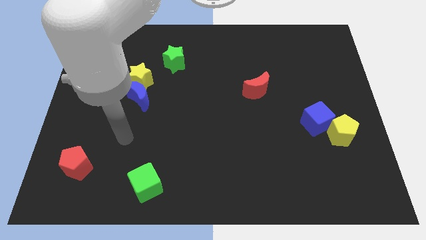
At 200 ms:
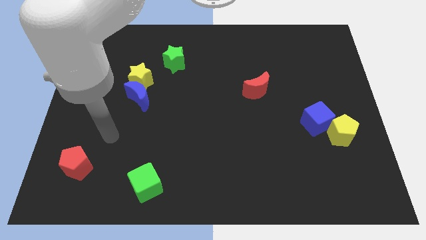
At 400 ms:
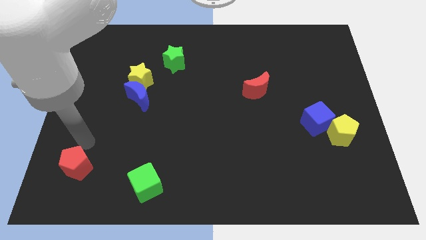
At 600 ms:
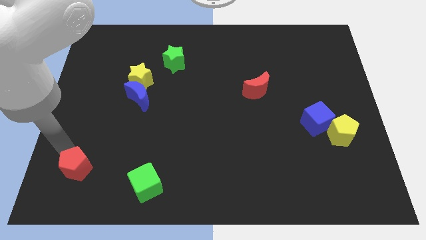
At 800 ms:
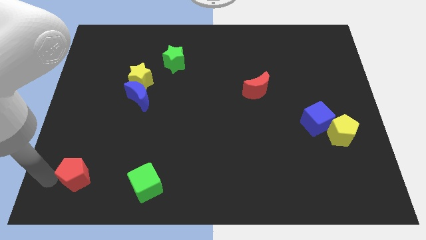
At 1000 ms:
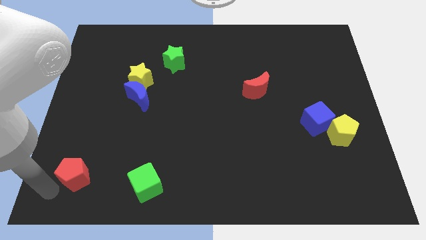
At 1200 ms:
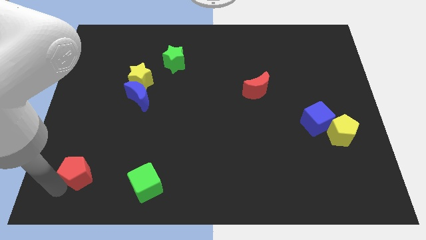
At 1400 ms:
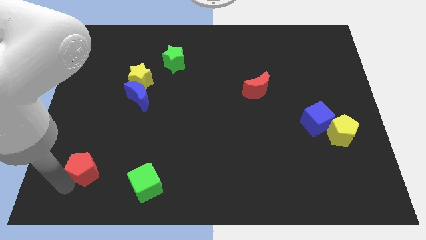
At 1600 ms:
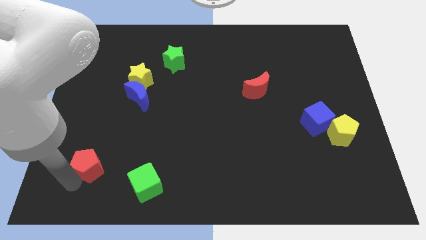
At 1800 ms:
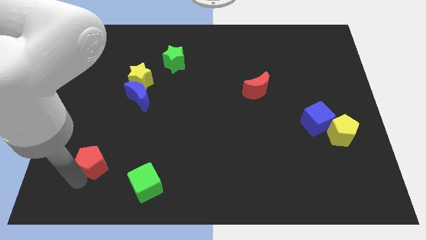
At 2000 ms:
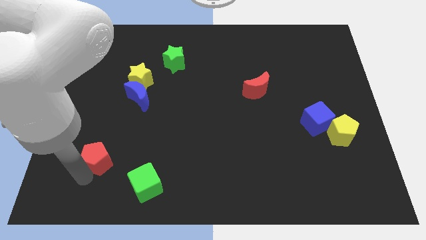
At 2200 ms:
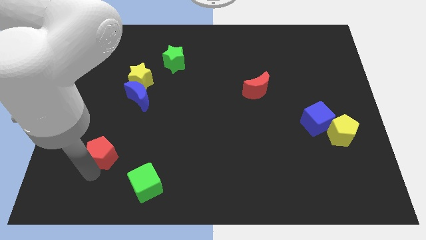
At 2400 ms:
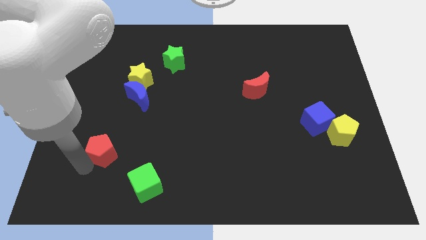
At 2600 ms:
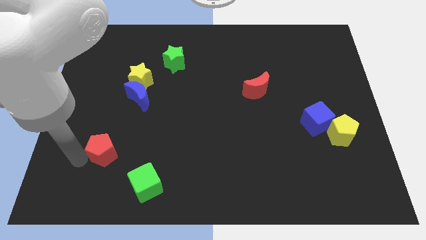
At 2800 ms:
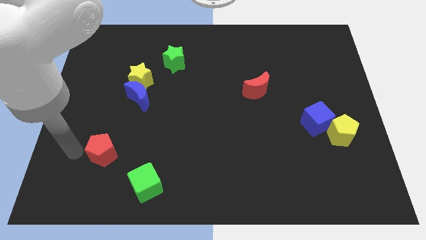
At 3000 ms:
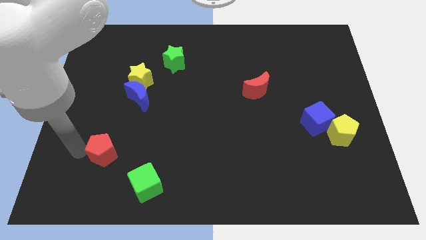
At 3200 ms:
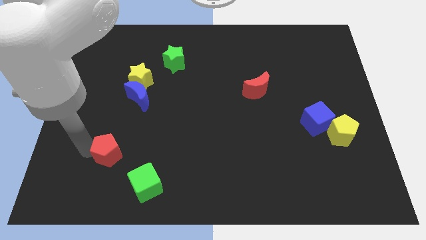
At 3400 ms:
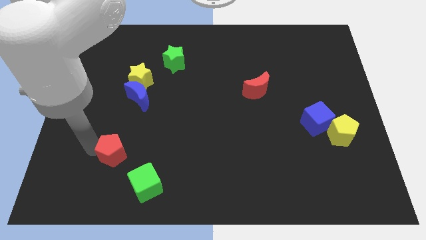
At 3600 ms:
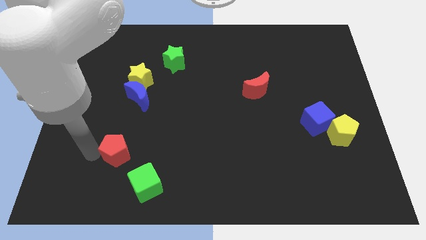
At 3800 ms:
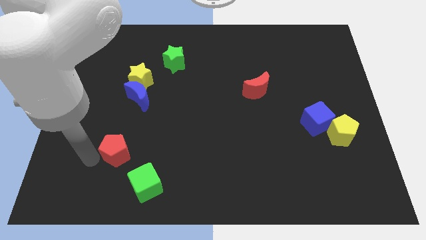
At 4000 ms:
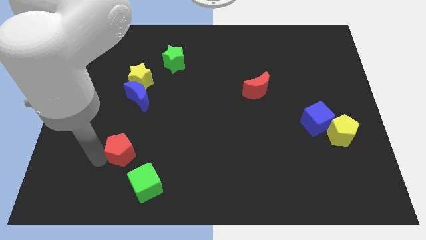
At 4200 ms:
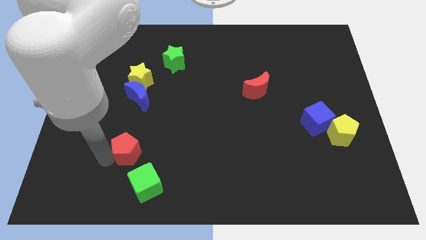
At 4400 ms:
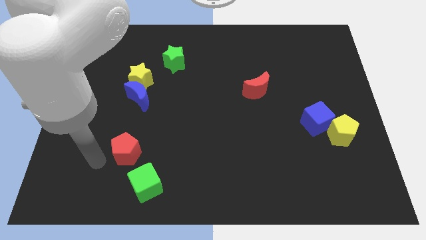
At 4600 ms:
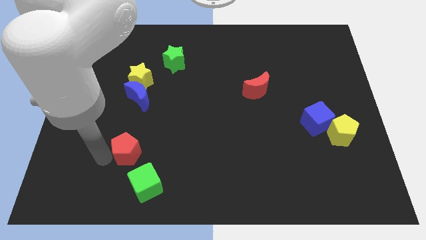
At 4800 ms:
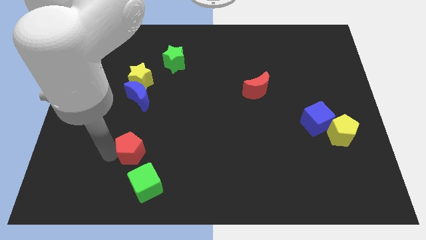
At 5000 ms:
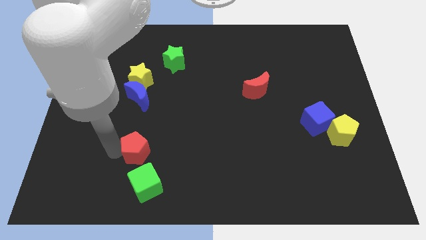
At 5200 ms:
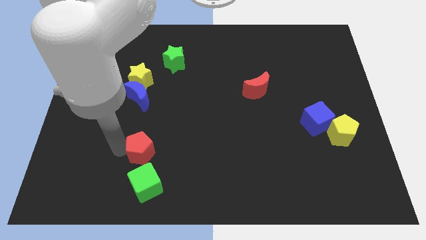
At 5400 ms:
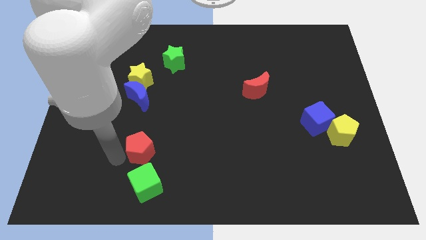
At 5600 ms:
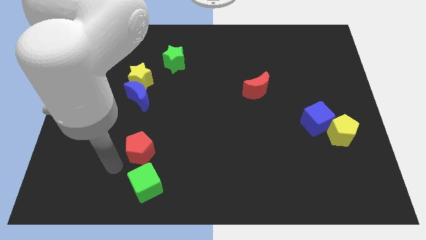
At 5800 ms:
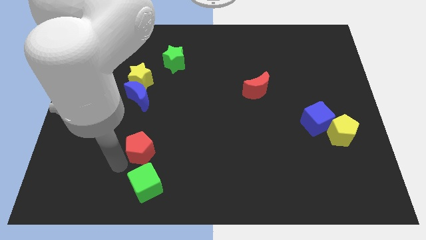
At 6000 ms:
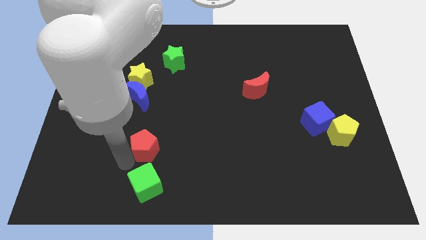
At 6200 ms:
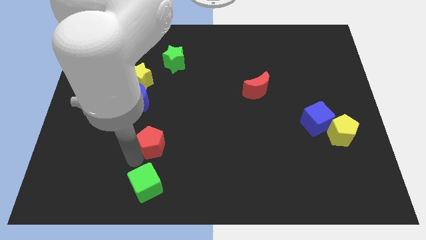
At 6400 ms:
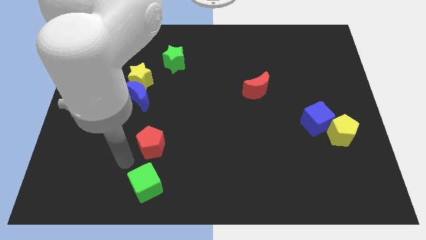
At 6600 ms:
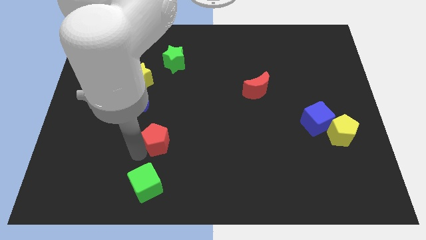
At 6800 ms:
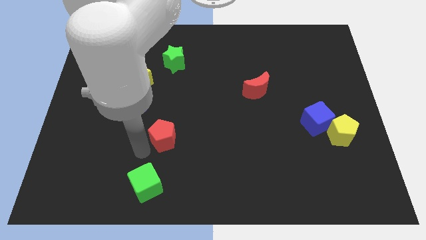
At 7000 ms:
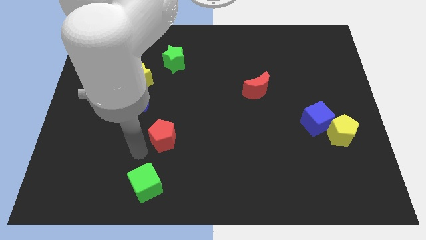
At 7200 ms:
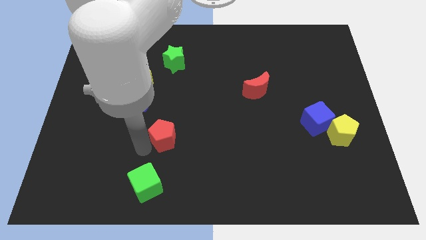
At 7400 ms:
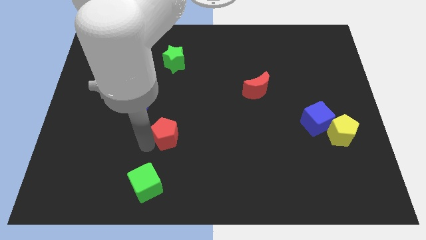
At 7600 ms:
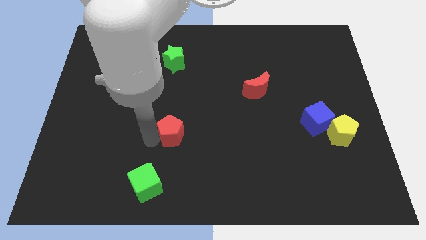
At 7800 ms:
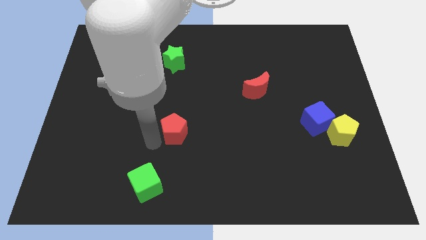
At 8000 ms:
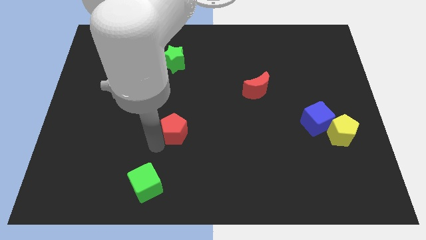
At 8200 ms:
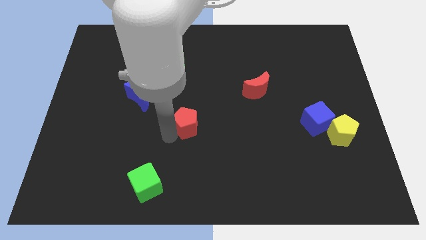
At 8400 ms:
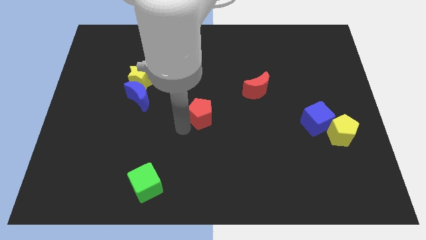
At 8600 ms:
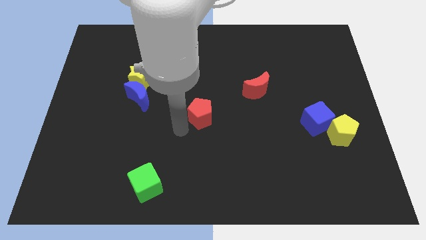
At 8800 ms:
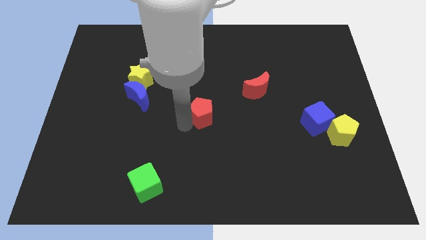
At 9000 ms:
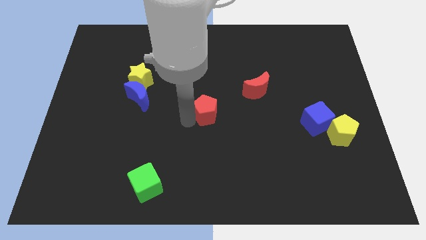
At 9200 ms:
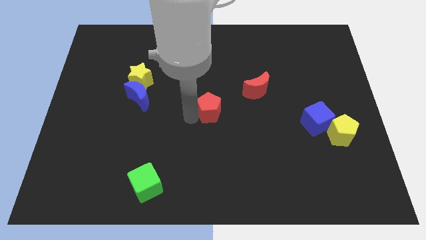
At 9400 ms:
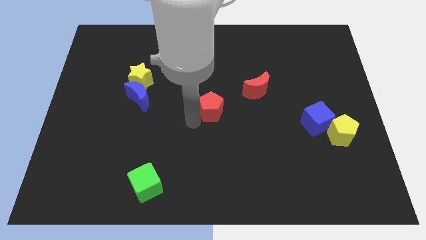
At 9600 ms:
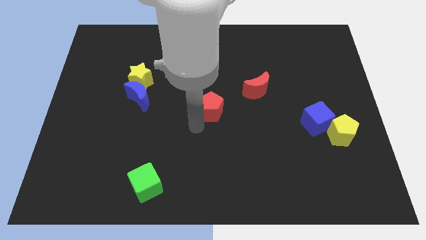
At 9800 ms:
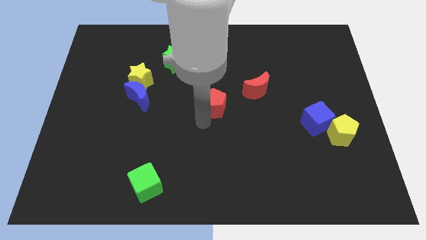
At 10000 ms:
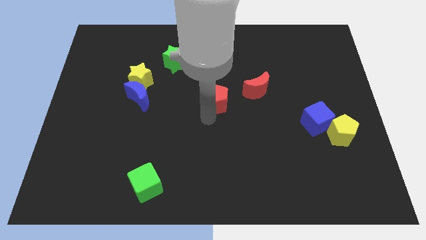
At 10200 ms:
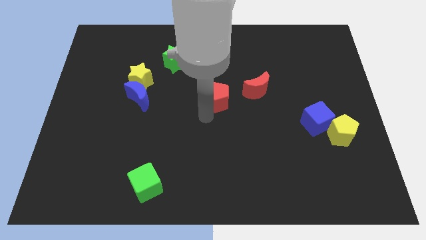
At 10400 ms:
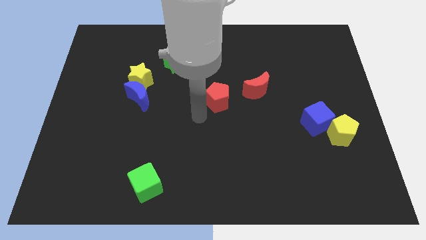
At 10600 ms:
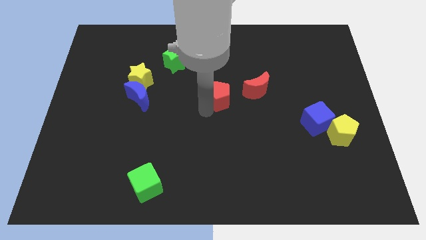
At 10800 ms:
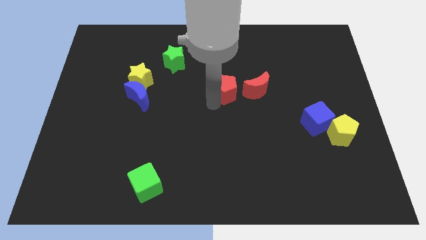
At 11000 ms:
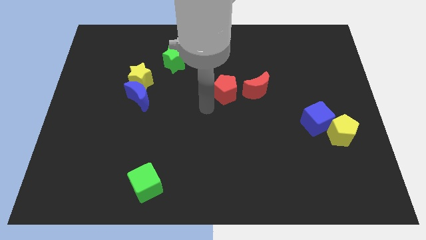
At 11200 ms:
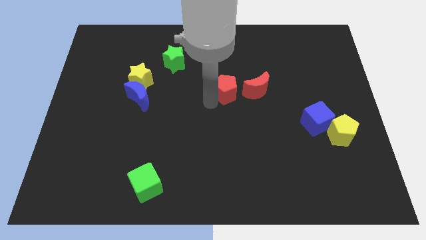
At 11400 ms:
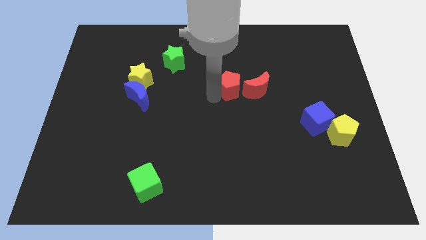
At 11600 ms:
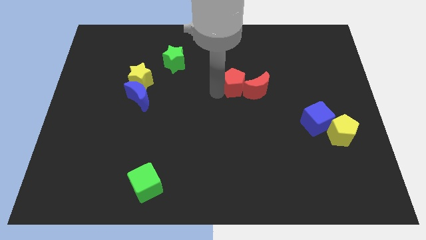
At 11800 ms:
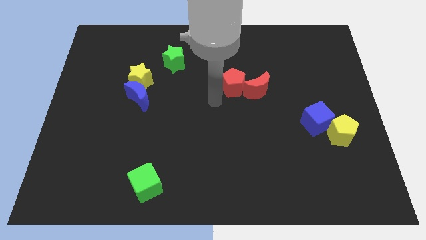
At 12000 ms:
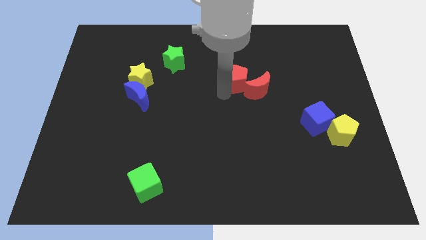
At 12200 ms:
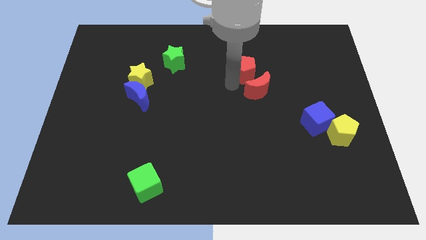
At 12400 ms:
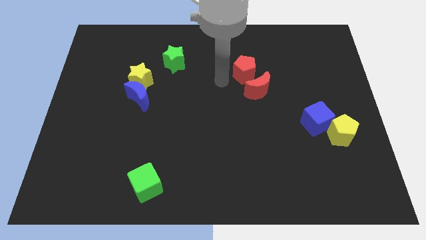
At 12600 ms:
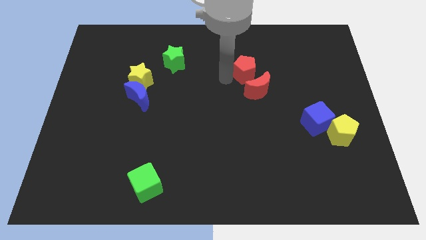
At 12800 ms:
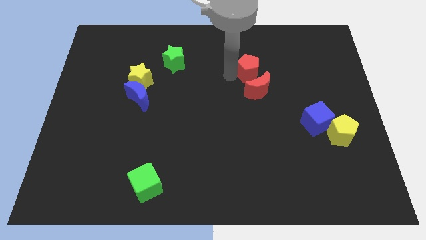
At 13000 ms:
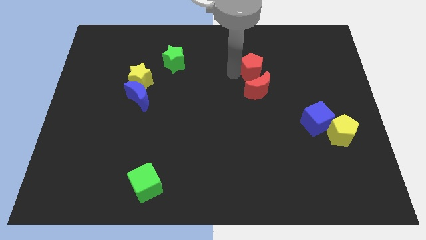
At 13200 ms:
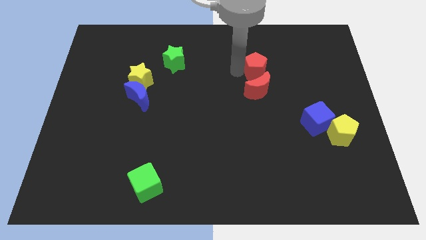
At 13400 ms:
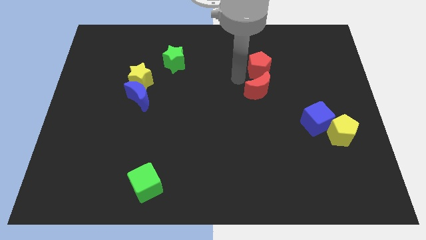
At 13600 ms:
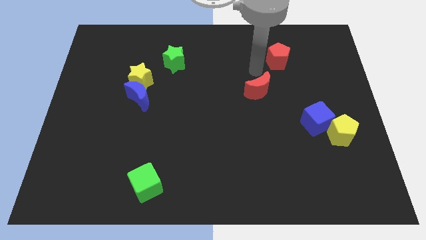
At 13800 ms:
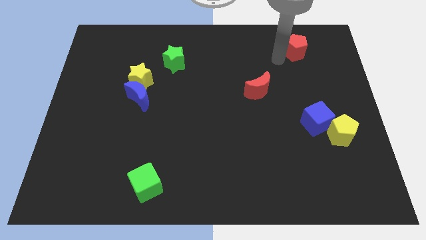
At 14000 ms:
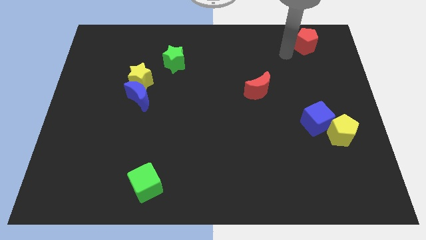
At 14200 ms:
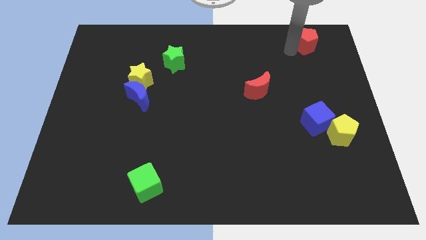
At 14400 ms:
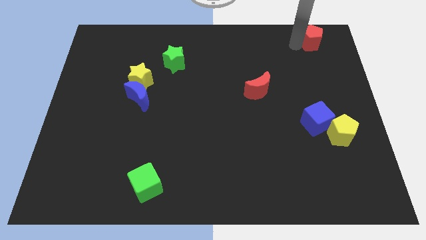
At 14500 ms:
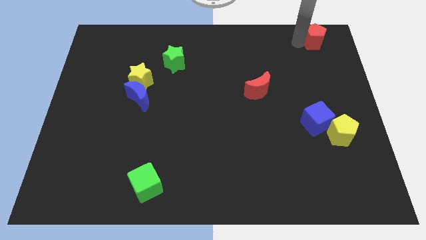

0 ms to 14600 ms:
slide the red pentagon to the upper right corner

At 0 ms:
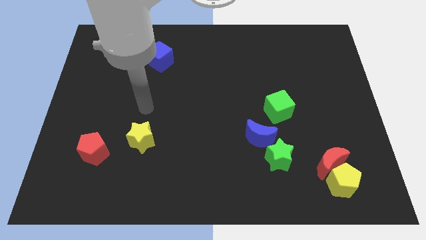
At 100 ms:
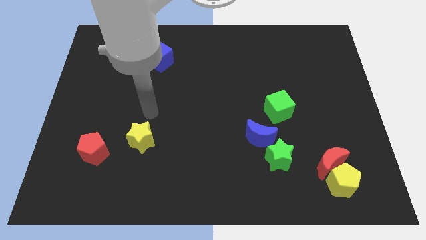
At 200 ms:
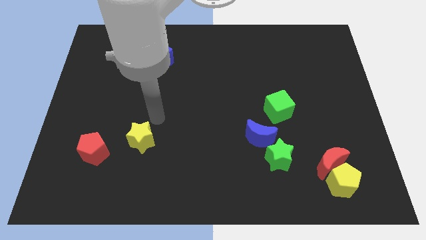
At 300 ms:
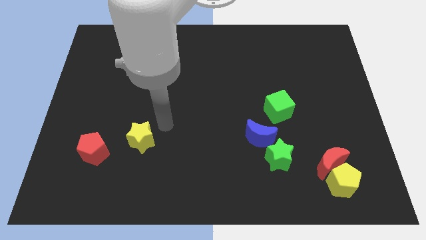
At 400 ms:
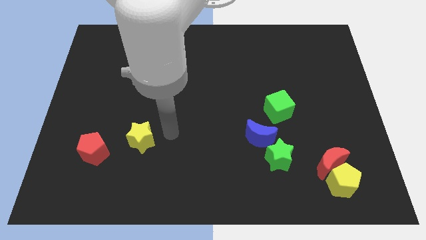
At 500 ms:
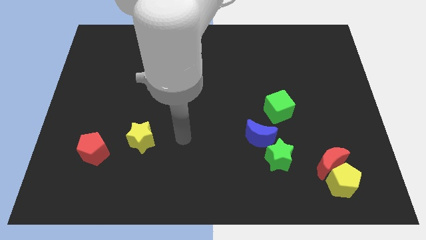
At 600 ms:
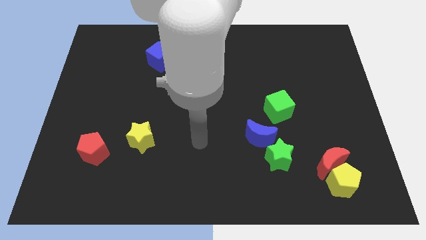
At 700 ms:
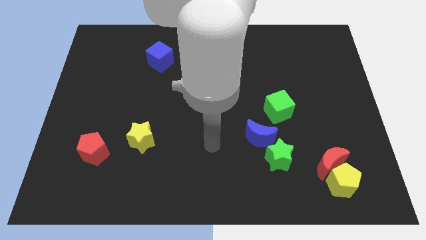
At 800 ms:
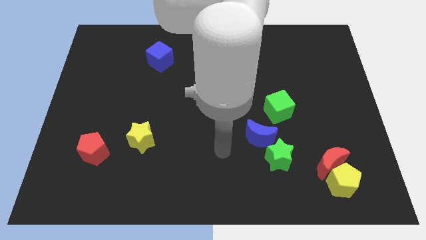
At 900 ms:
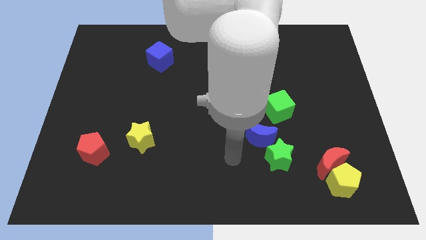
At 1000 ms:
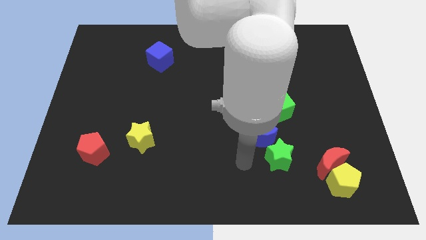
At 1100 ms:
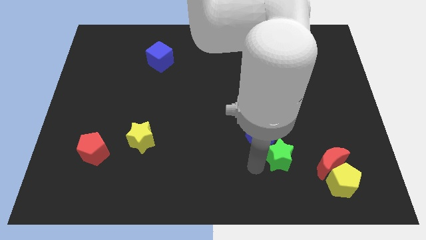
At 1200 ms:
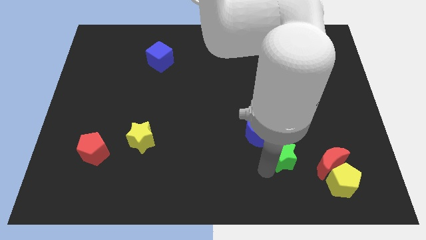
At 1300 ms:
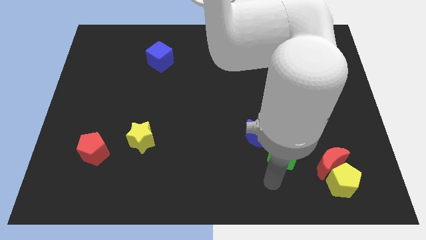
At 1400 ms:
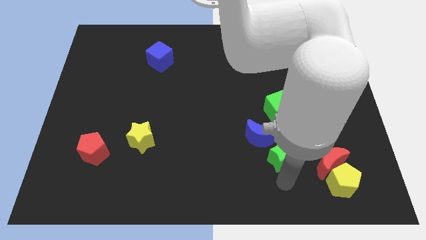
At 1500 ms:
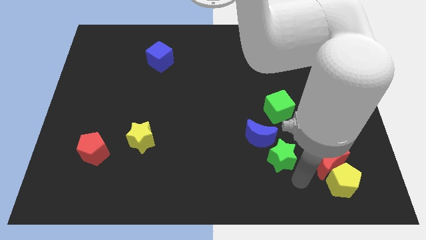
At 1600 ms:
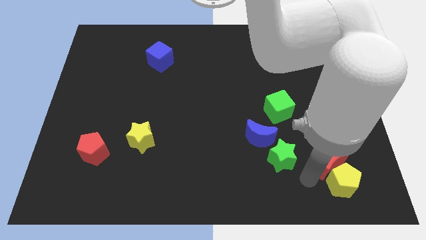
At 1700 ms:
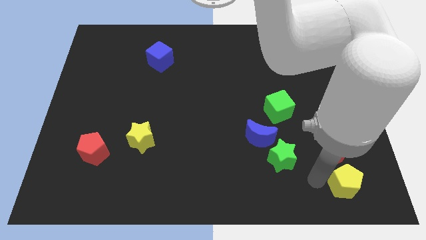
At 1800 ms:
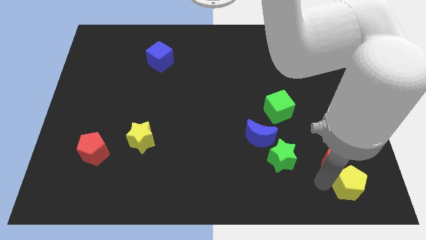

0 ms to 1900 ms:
put the yellow pentagon to the bottom right corner
